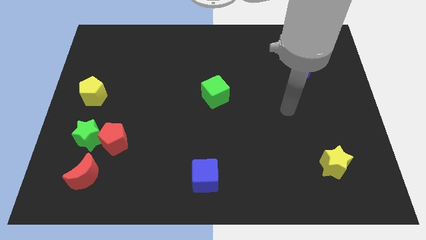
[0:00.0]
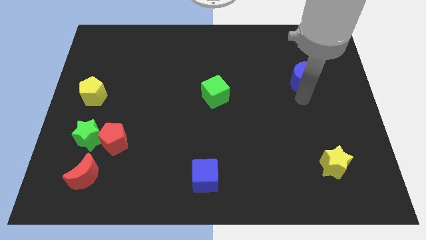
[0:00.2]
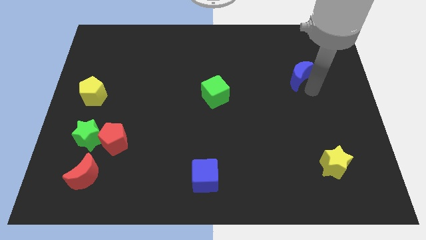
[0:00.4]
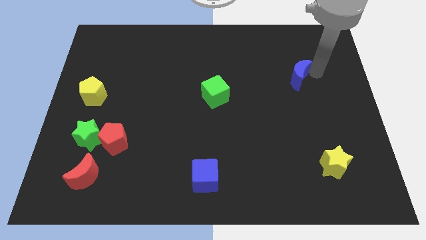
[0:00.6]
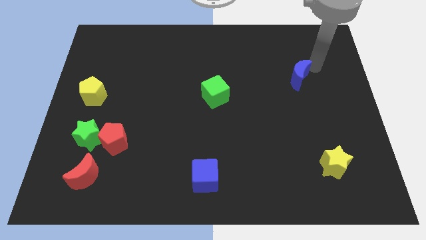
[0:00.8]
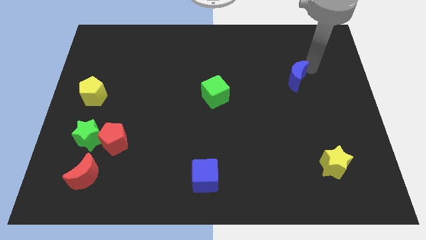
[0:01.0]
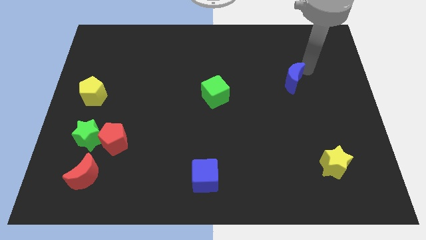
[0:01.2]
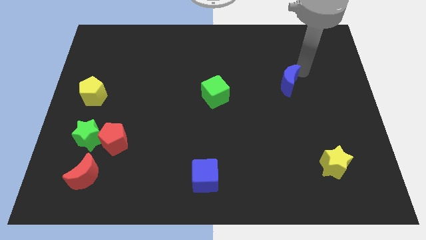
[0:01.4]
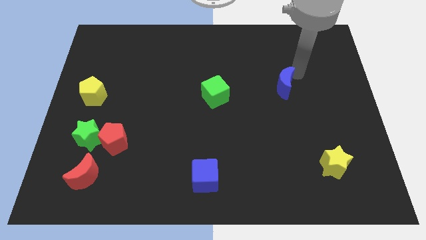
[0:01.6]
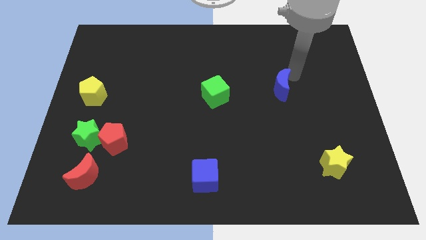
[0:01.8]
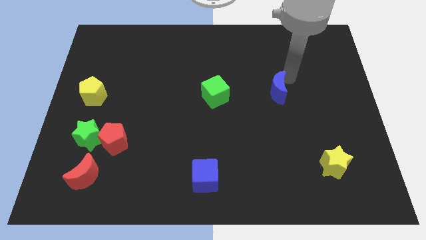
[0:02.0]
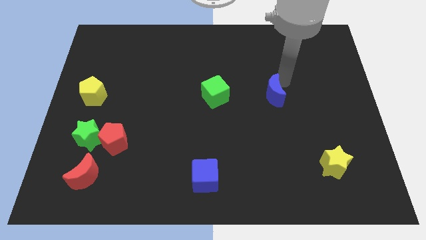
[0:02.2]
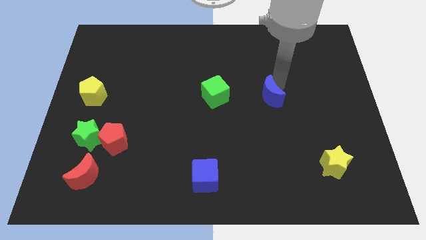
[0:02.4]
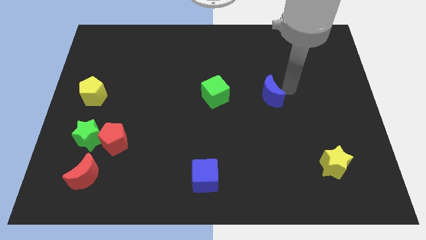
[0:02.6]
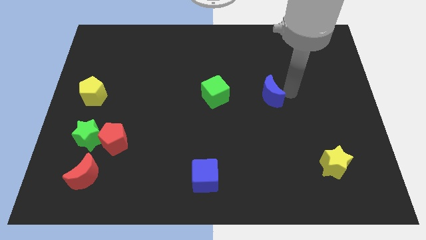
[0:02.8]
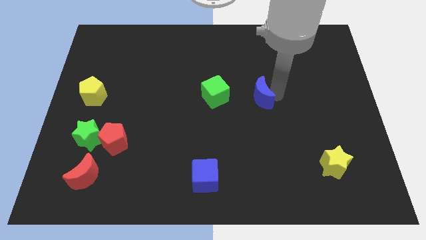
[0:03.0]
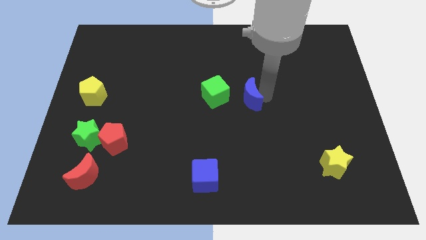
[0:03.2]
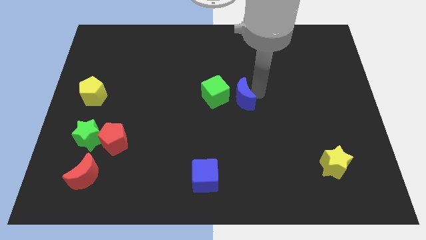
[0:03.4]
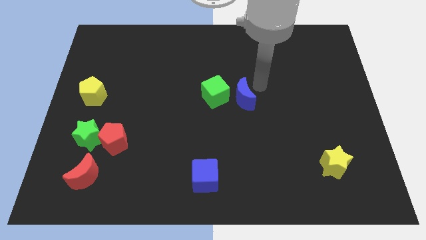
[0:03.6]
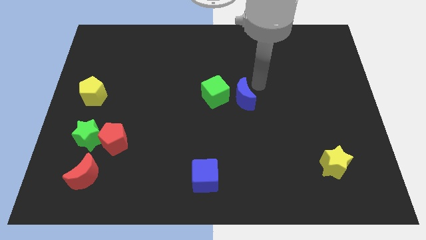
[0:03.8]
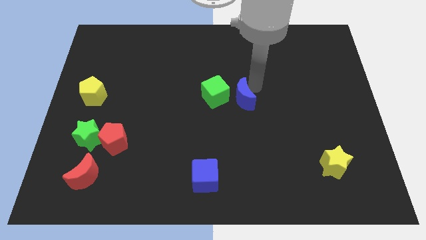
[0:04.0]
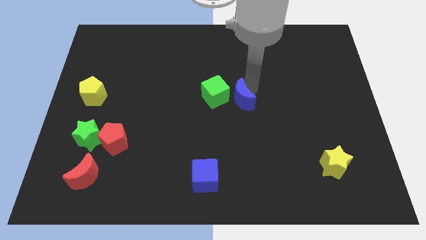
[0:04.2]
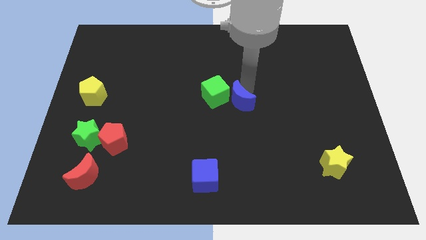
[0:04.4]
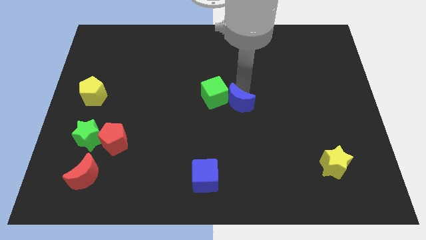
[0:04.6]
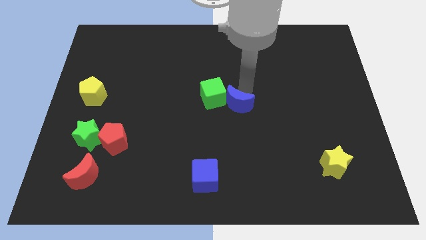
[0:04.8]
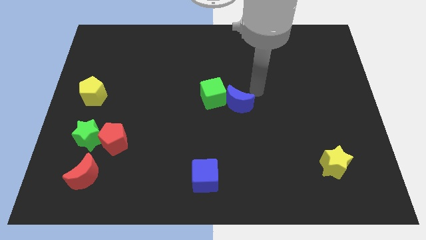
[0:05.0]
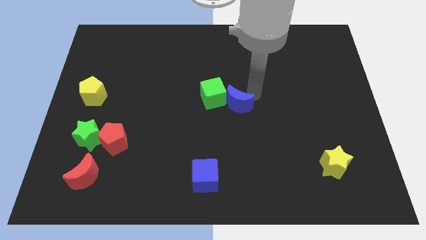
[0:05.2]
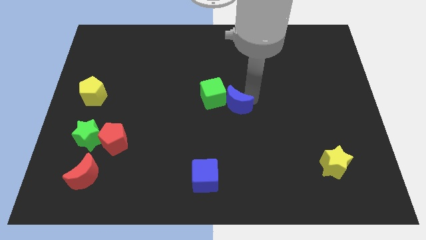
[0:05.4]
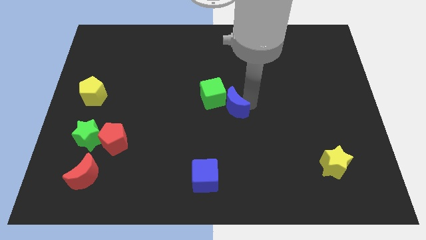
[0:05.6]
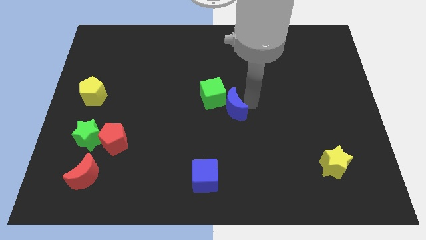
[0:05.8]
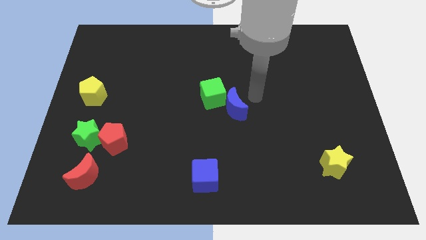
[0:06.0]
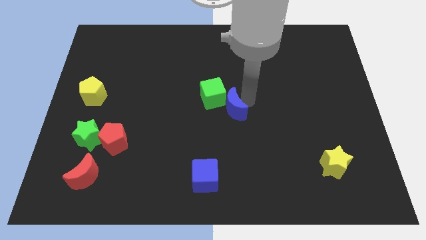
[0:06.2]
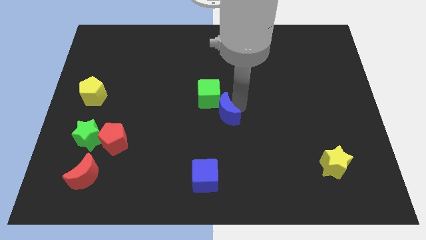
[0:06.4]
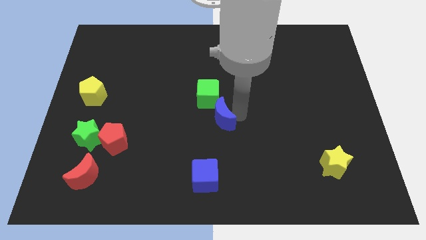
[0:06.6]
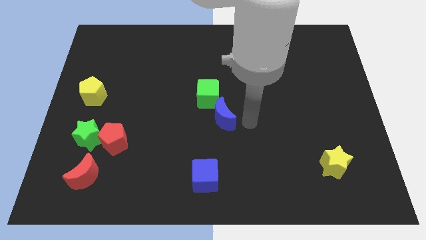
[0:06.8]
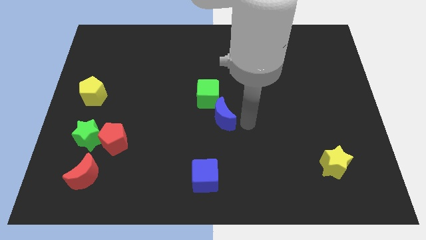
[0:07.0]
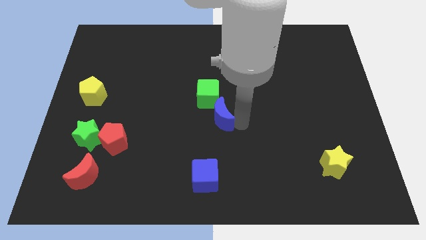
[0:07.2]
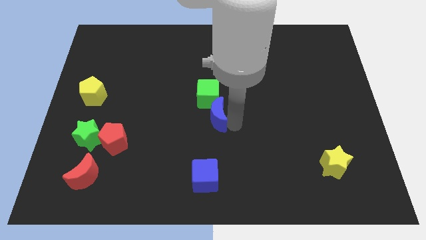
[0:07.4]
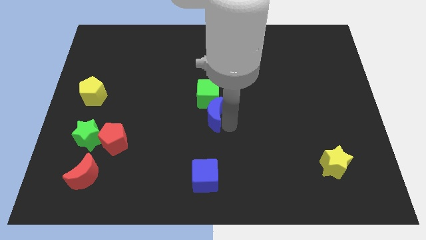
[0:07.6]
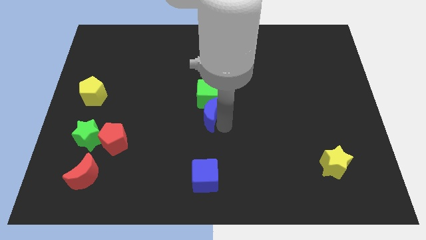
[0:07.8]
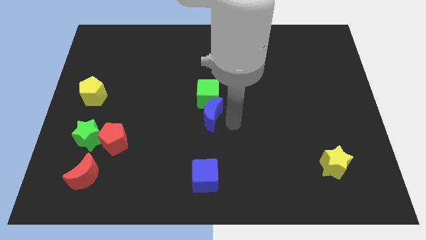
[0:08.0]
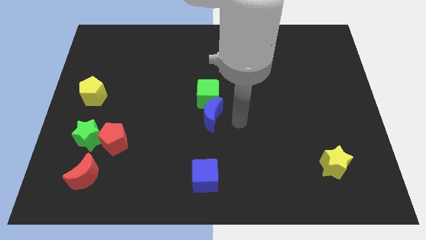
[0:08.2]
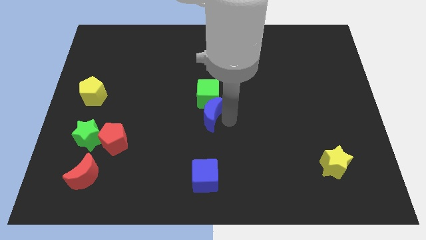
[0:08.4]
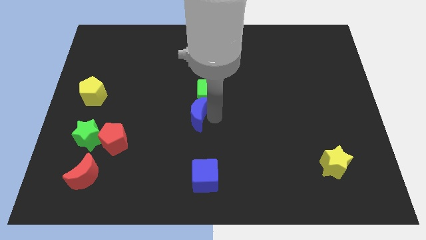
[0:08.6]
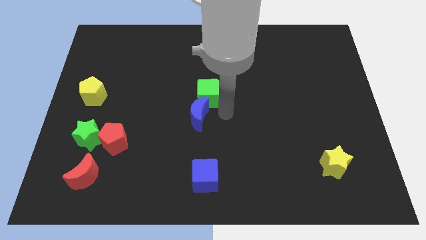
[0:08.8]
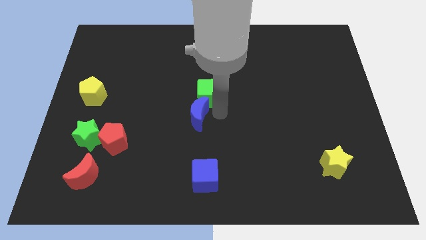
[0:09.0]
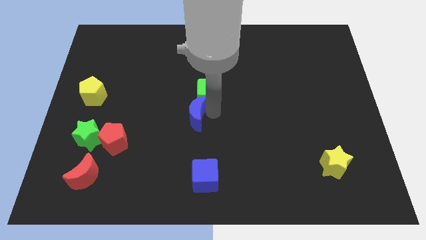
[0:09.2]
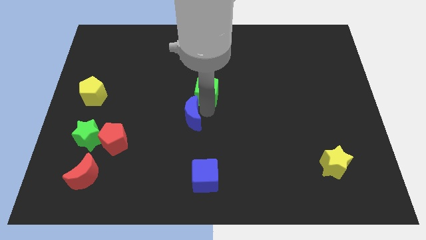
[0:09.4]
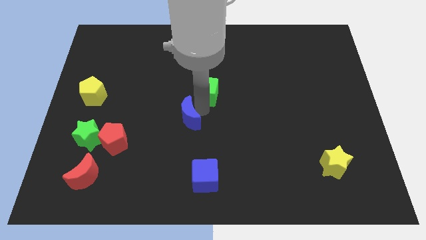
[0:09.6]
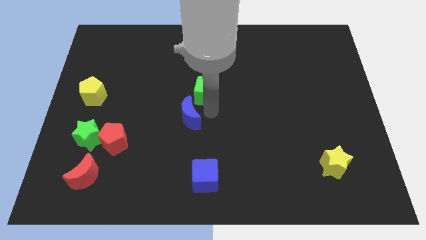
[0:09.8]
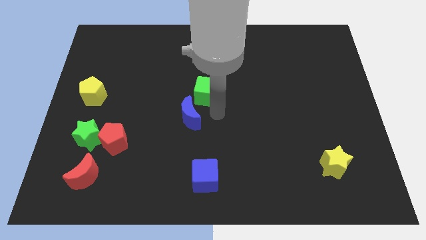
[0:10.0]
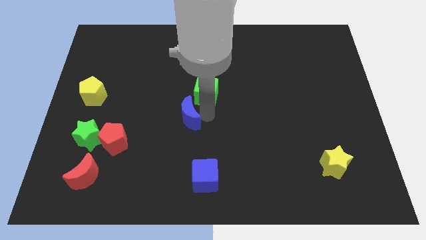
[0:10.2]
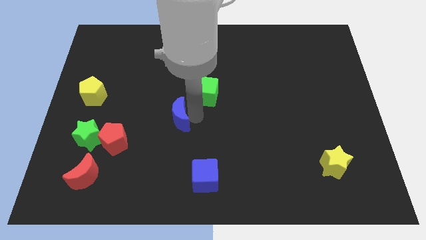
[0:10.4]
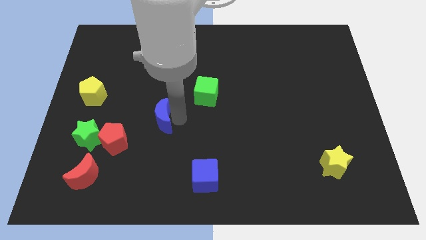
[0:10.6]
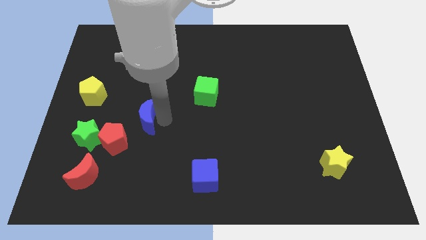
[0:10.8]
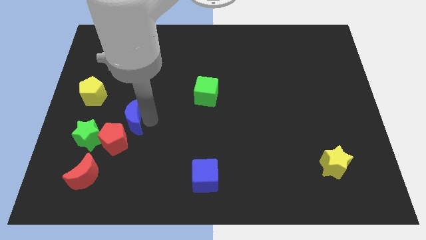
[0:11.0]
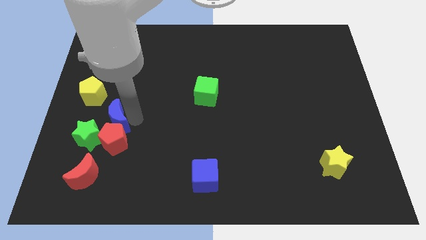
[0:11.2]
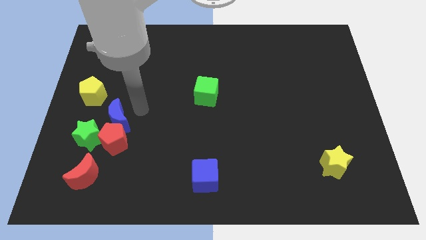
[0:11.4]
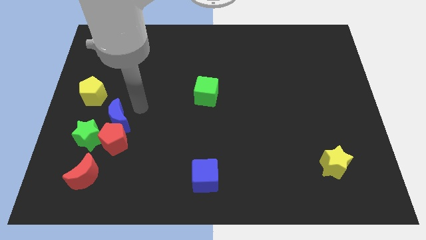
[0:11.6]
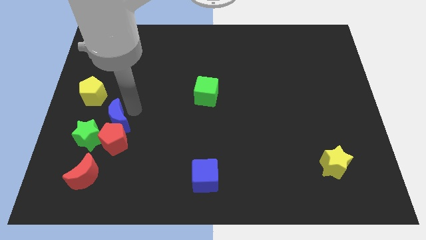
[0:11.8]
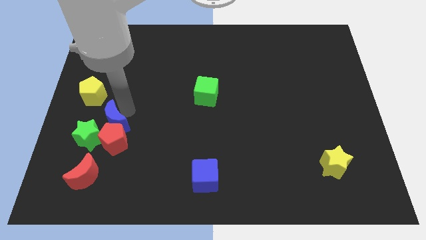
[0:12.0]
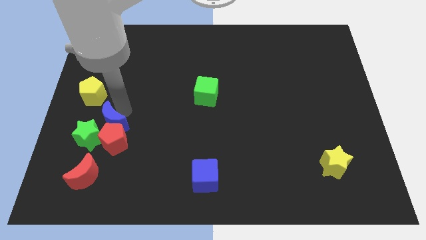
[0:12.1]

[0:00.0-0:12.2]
put the blue moon towards the green star
